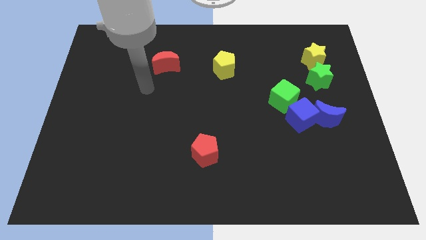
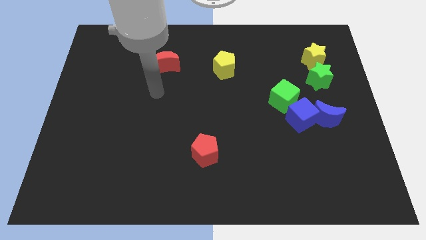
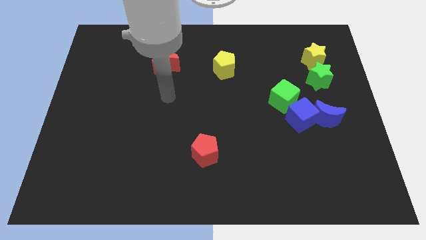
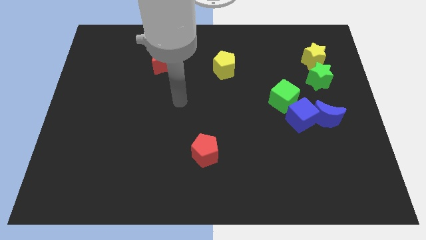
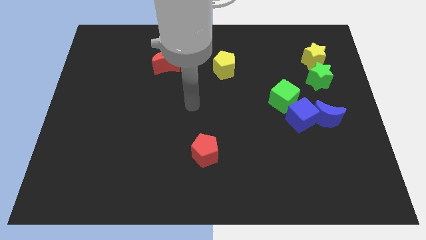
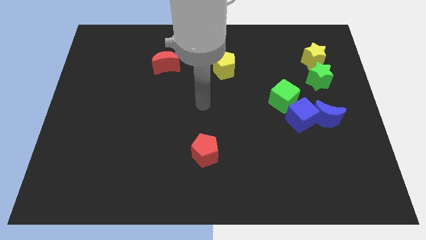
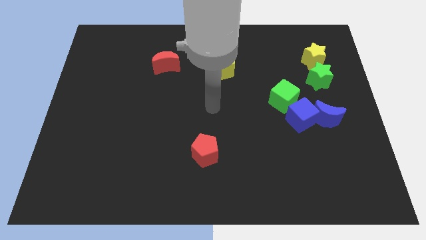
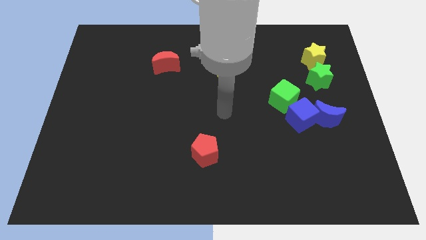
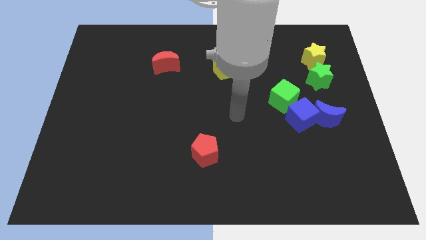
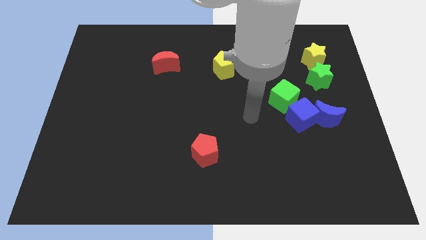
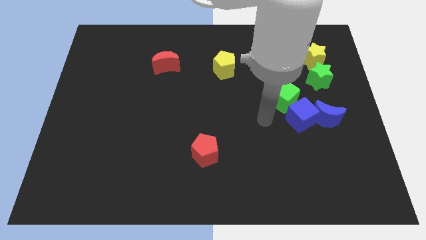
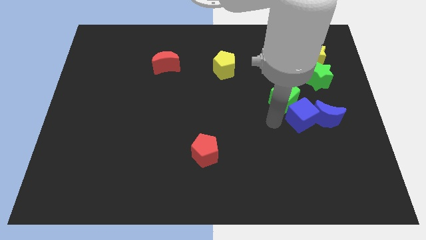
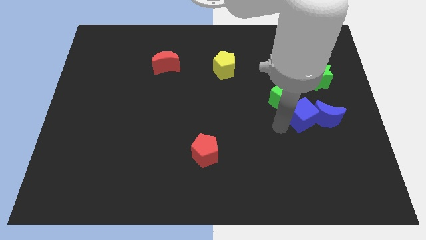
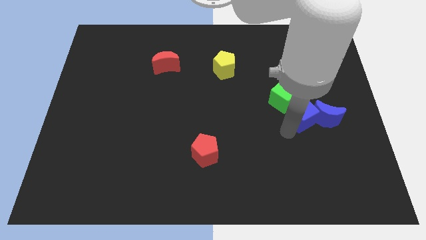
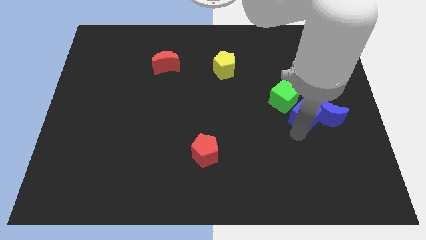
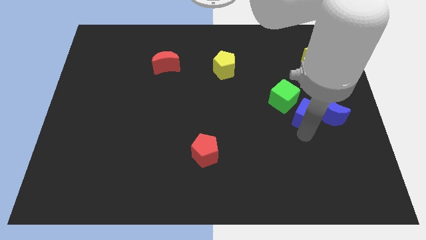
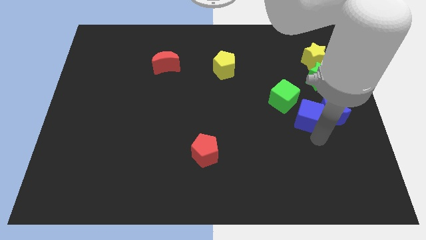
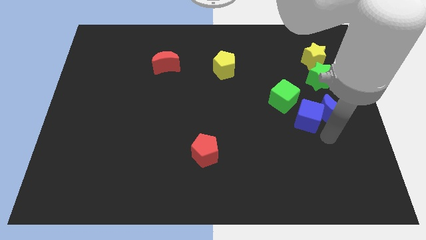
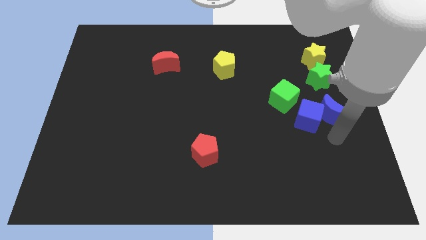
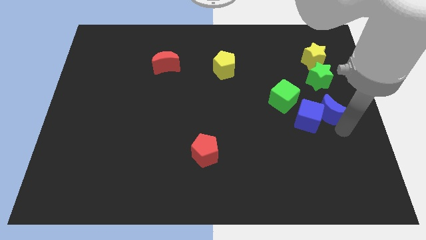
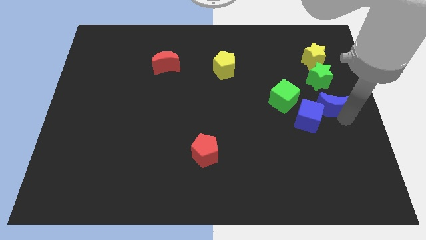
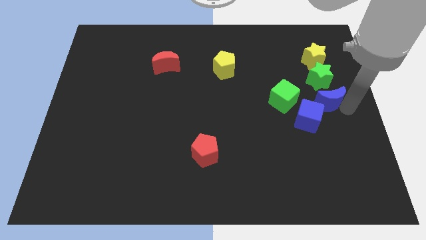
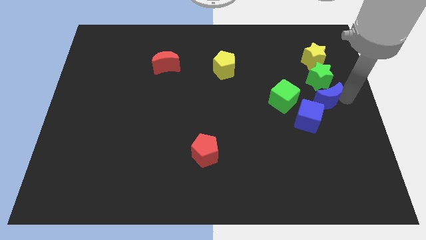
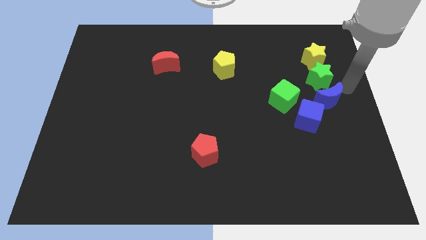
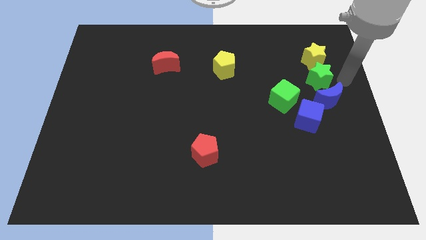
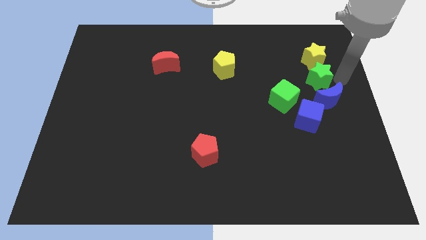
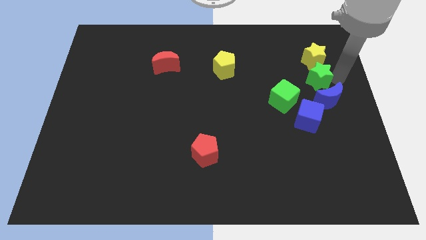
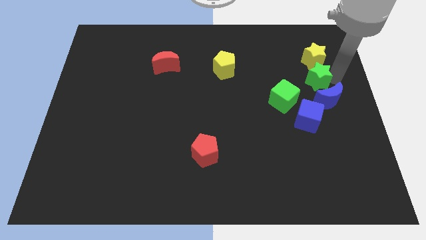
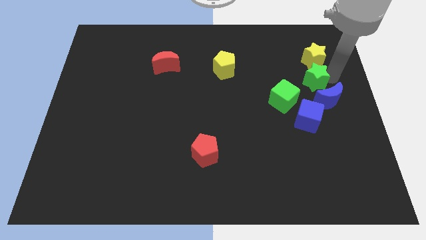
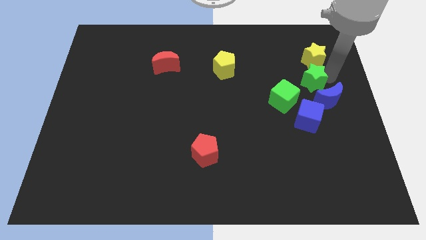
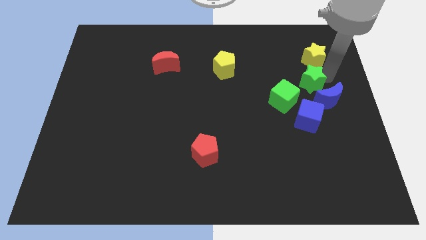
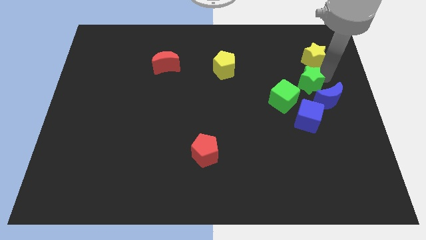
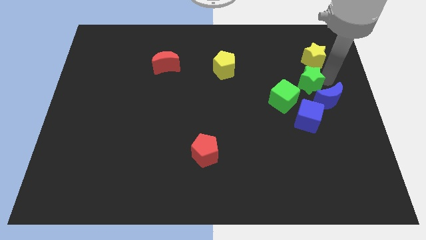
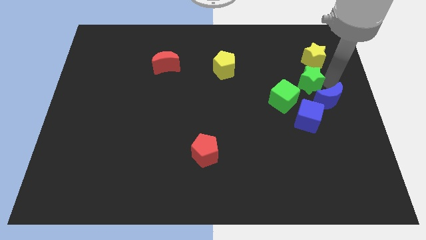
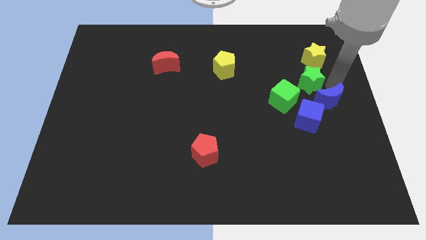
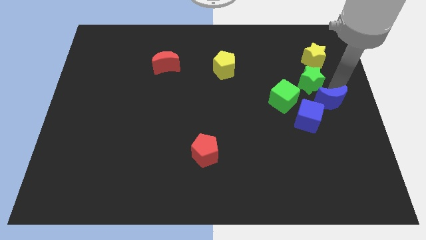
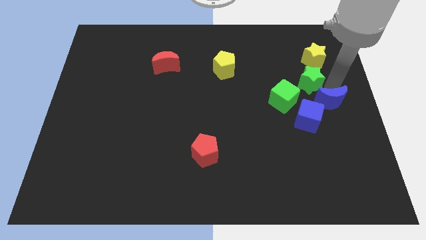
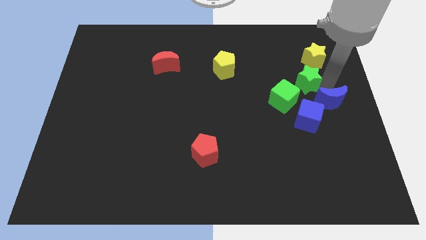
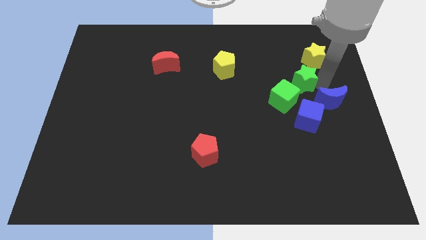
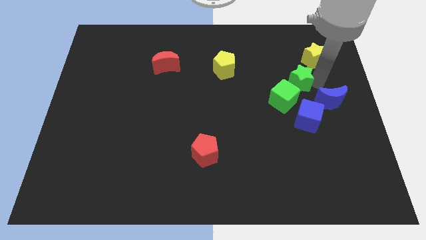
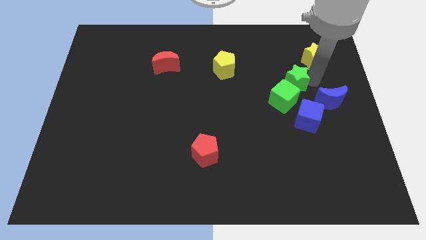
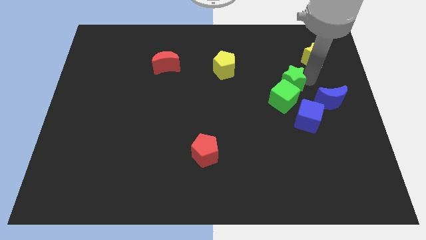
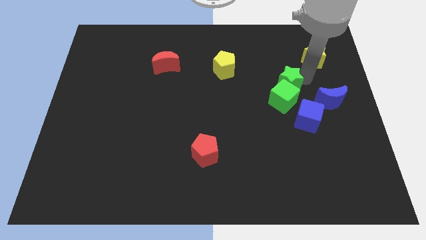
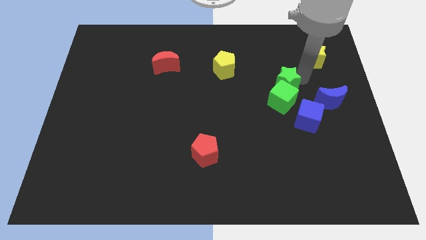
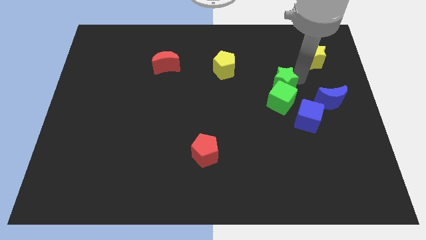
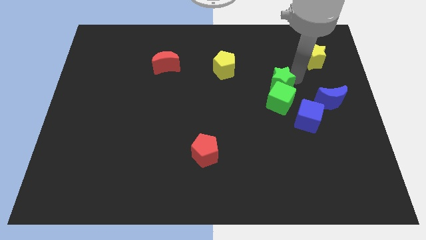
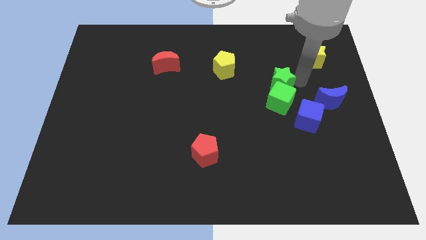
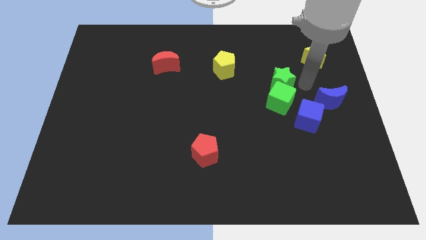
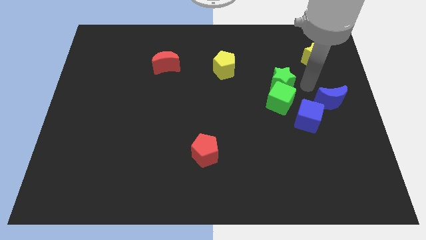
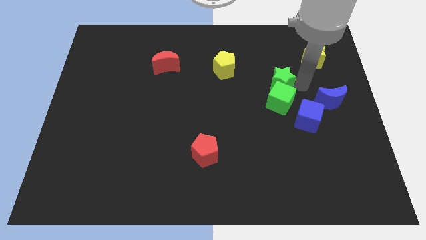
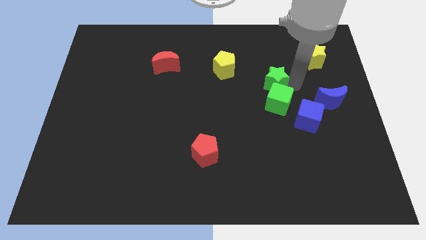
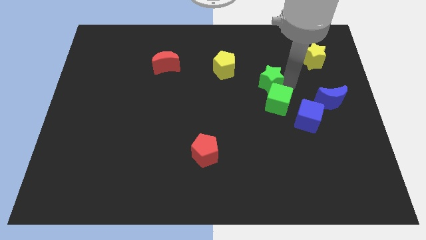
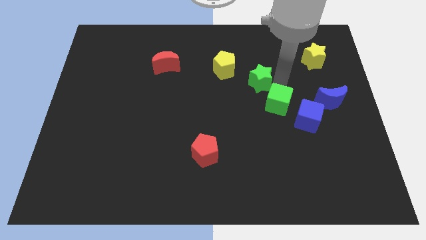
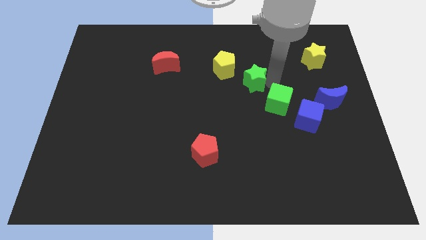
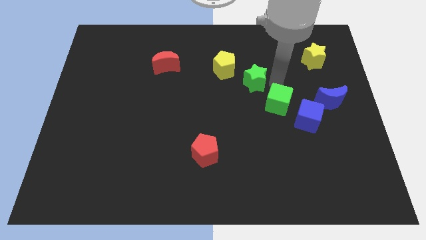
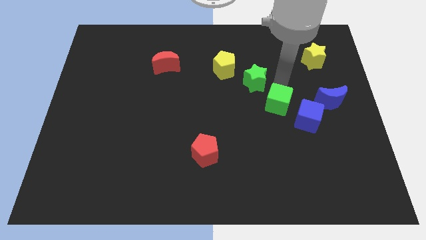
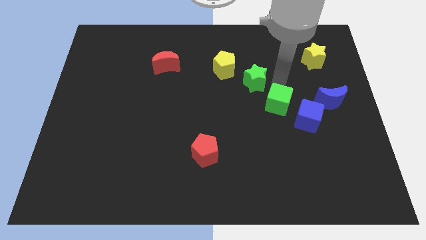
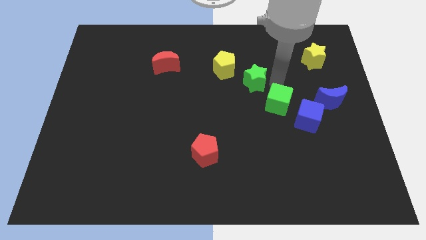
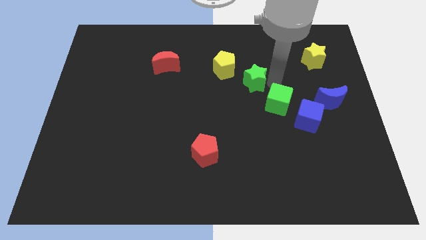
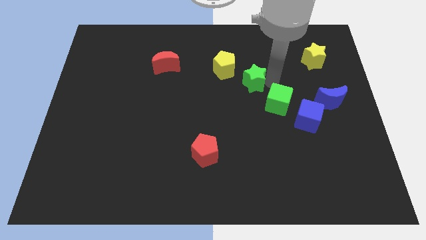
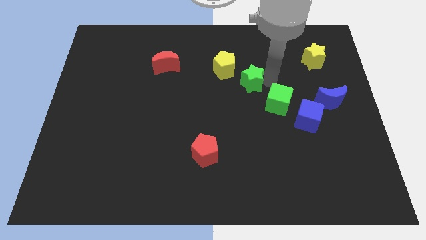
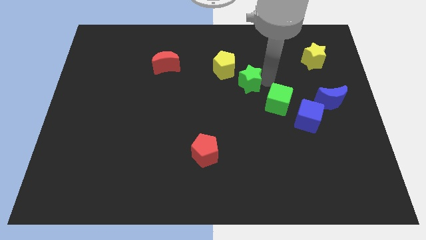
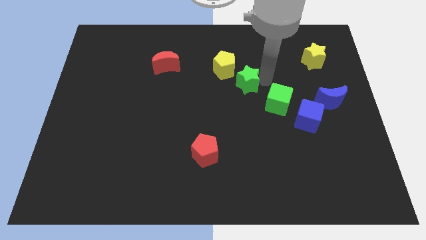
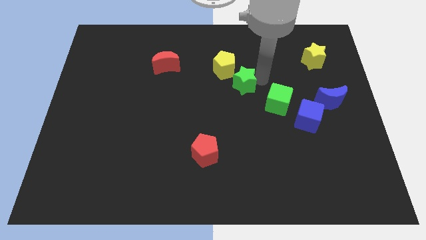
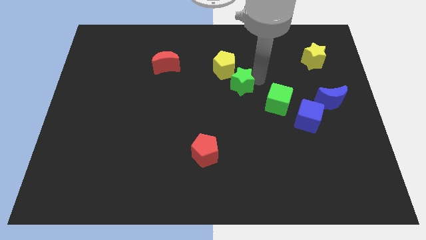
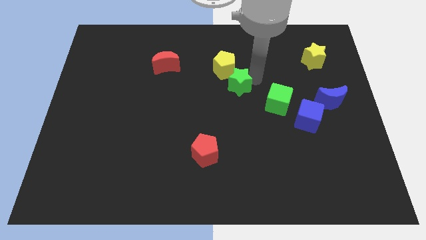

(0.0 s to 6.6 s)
move the green star left

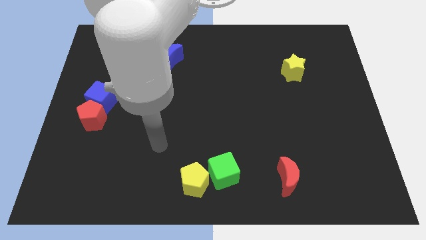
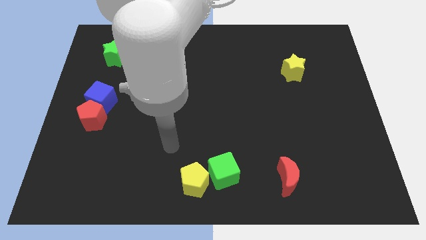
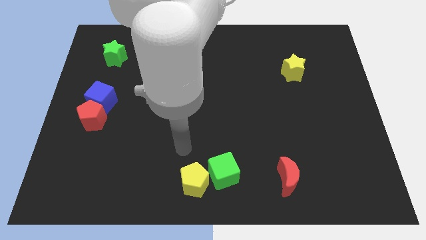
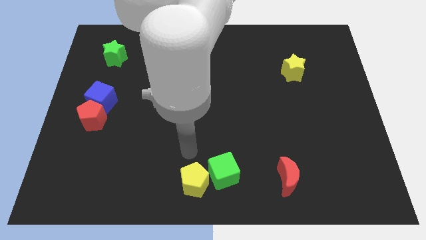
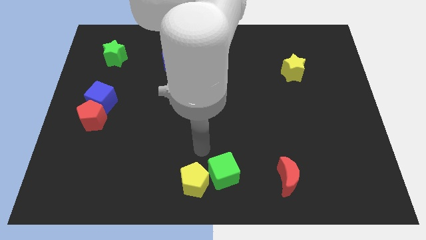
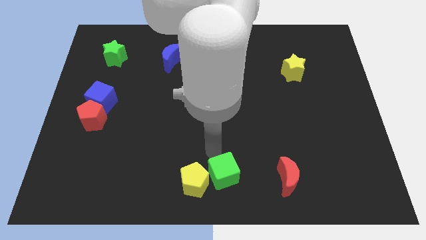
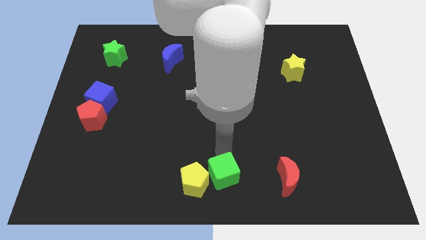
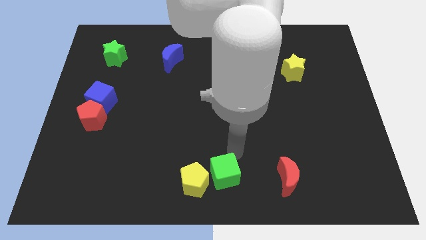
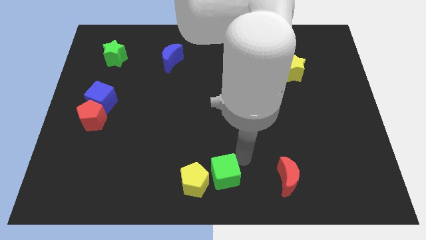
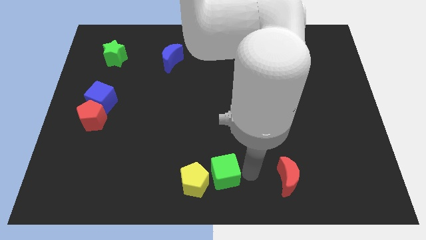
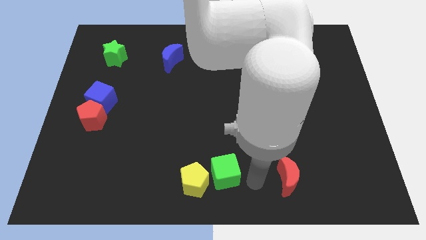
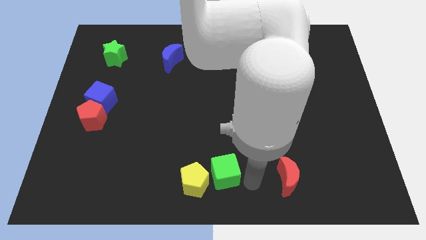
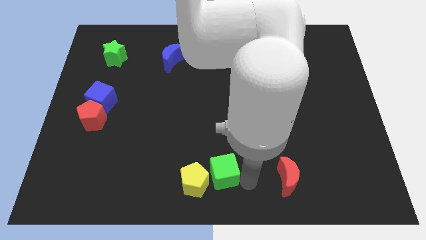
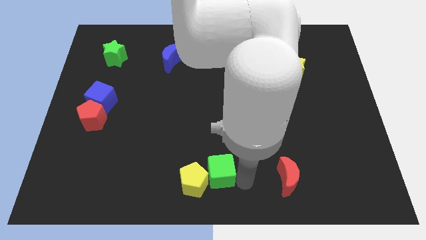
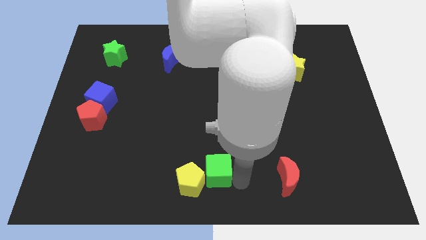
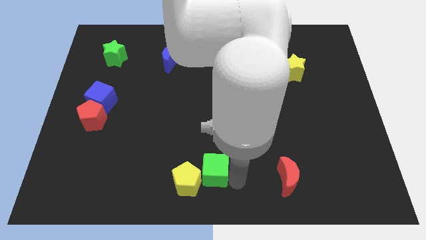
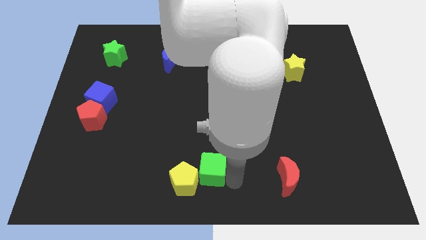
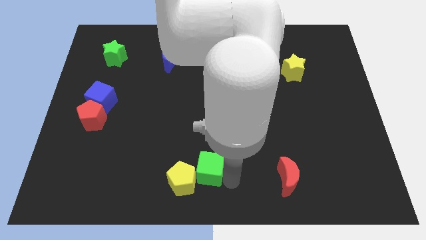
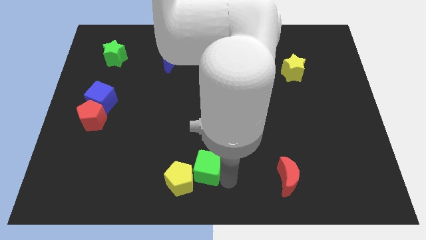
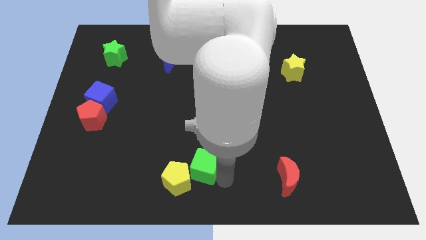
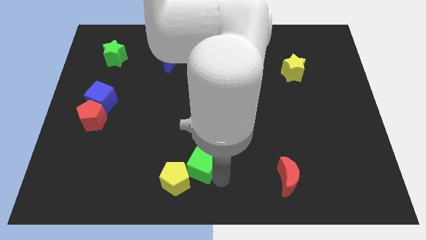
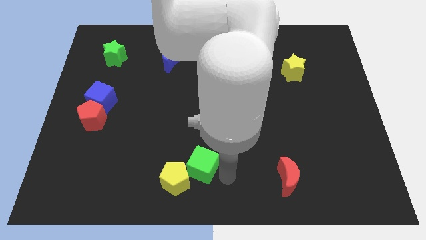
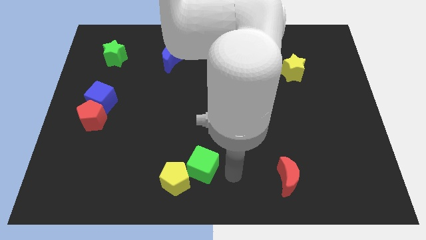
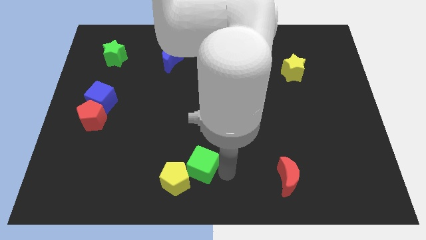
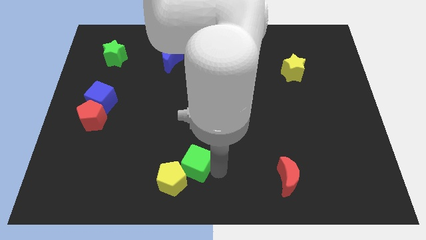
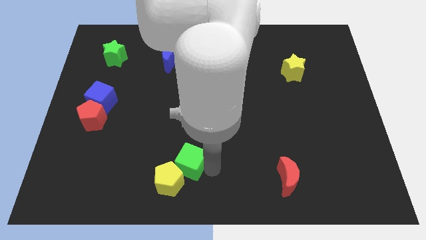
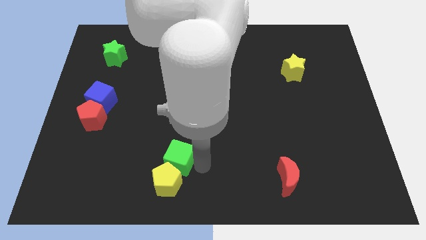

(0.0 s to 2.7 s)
push the green cube left a little bit
